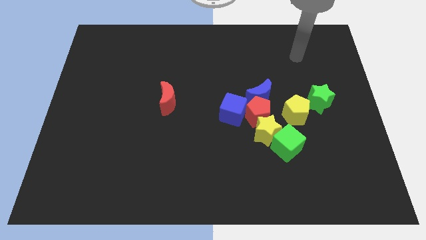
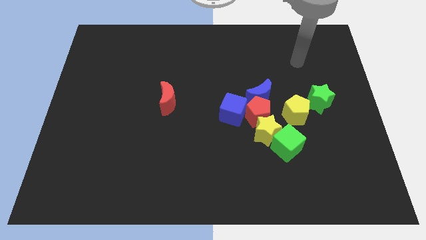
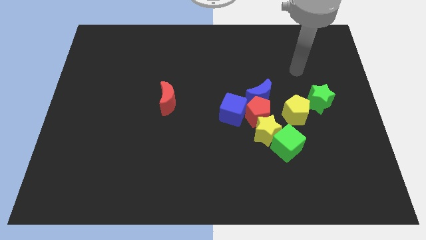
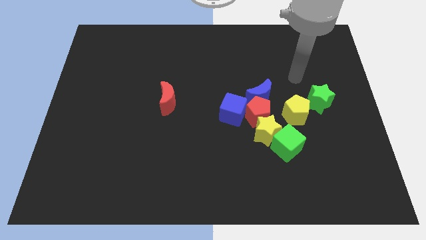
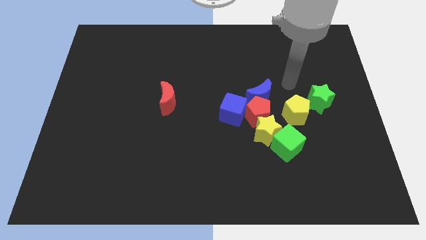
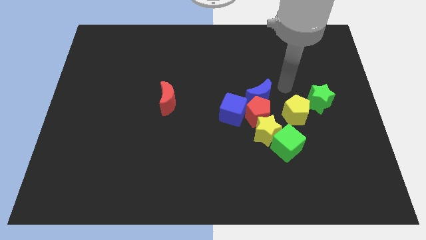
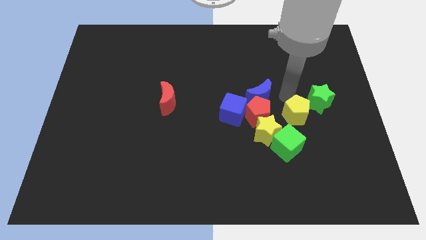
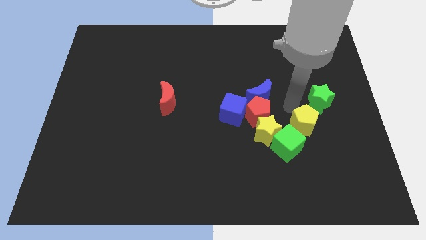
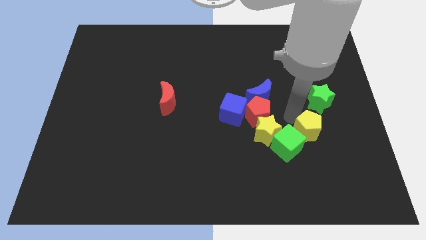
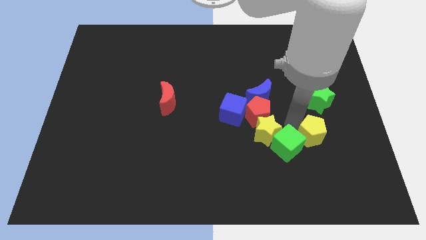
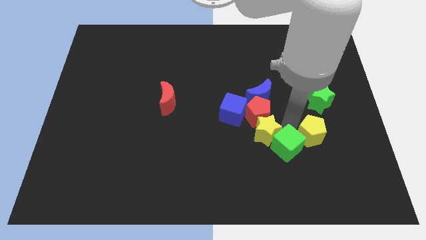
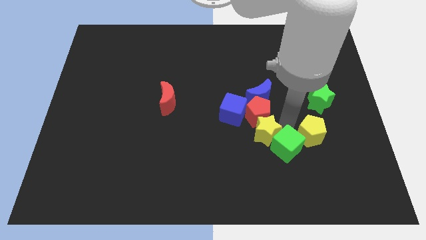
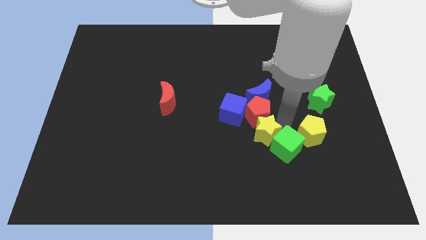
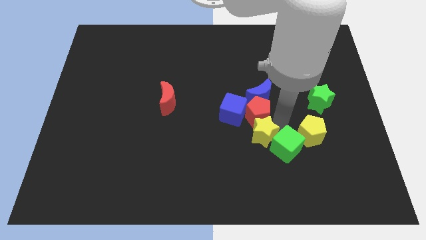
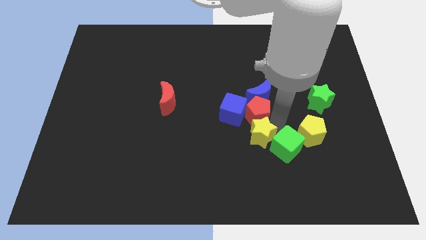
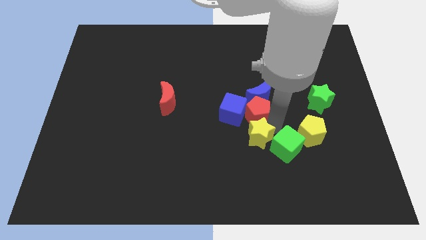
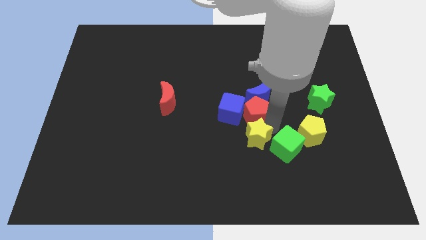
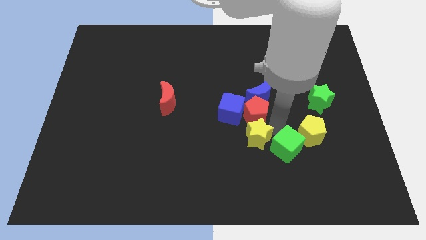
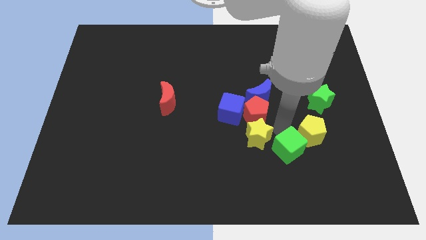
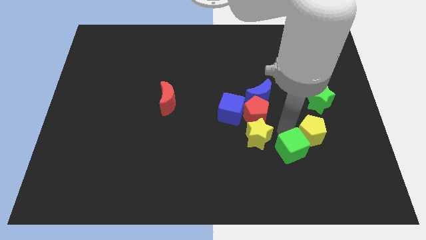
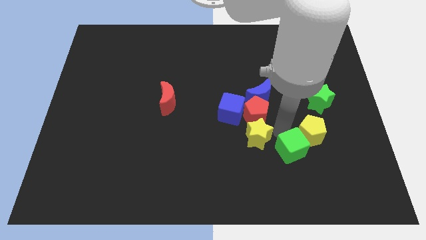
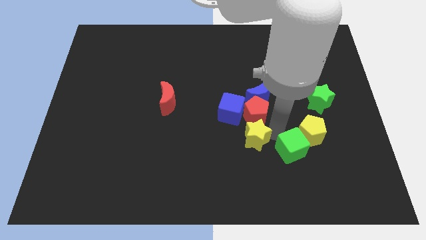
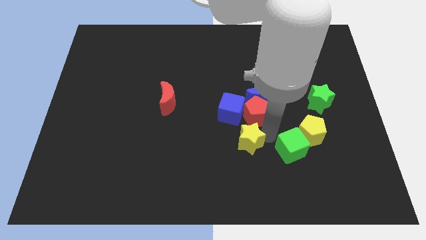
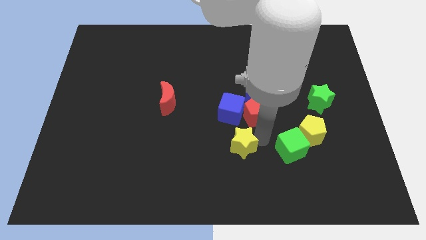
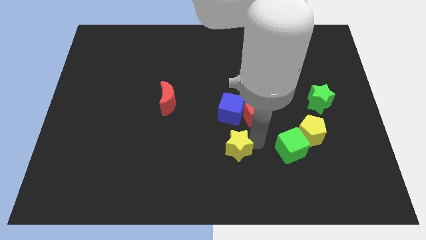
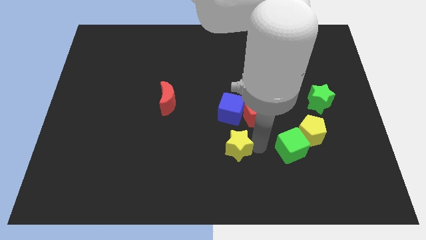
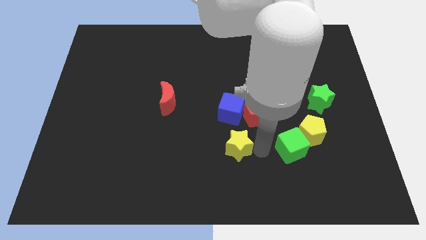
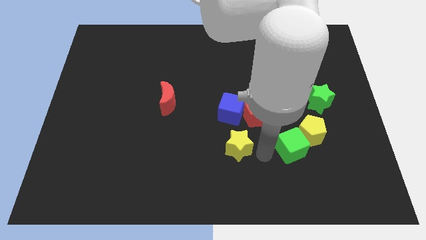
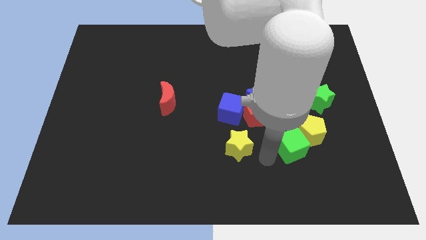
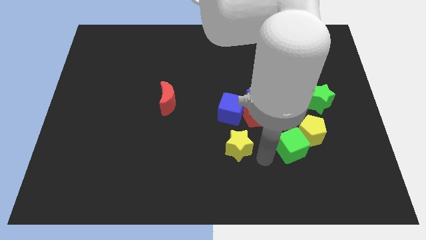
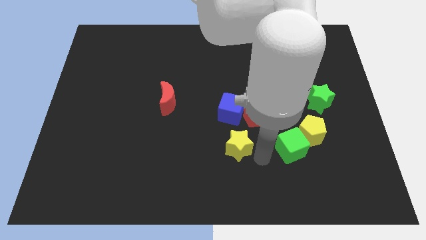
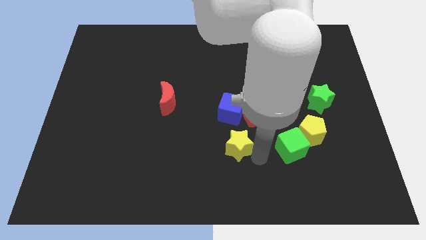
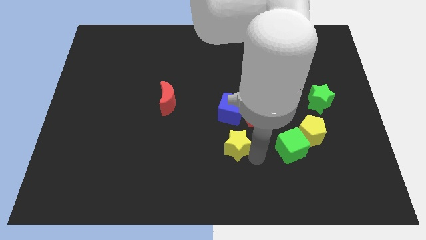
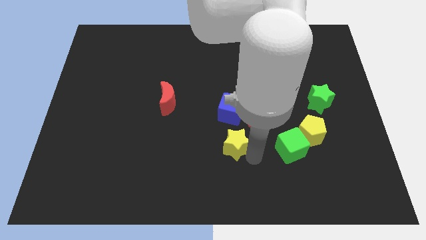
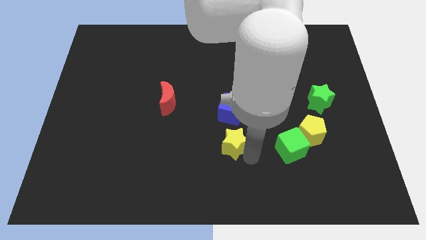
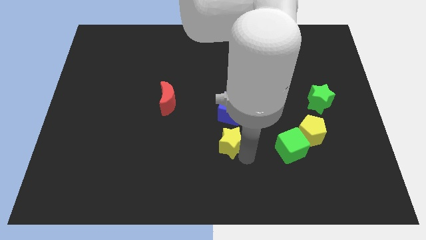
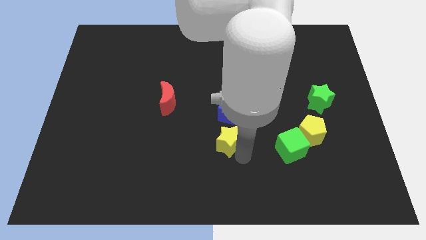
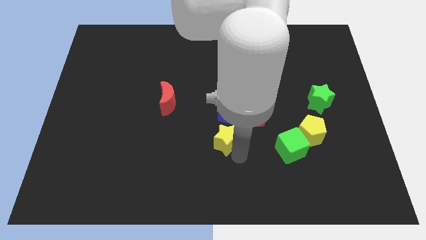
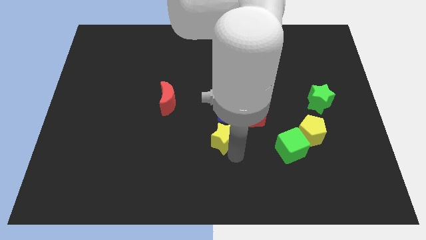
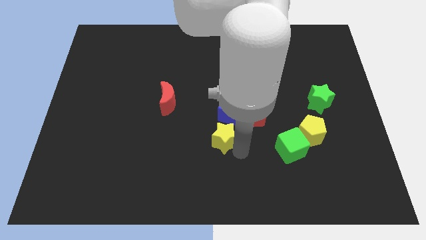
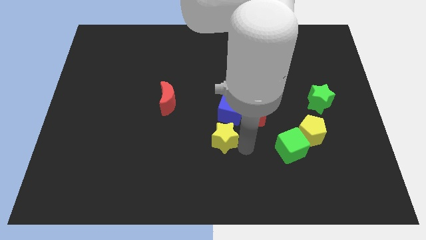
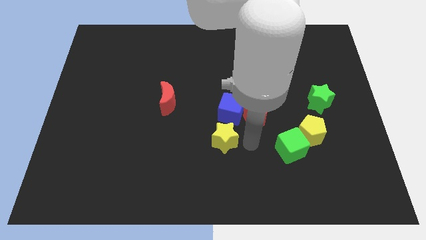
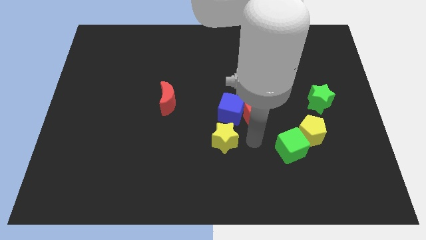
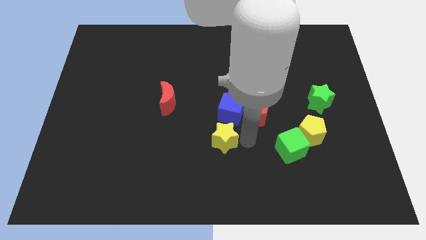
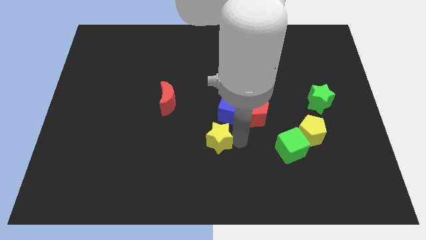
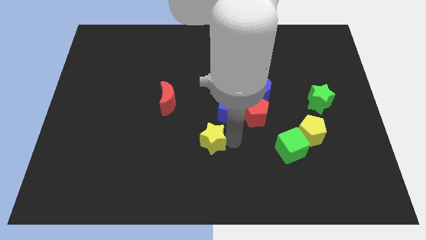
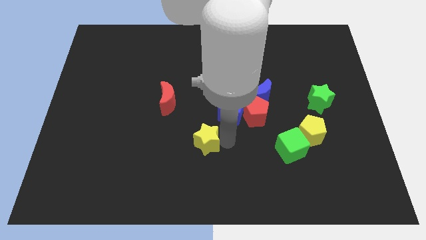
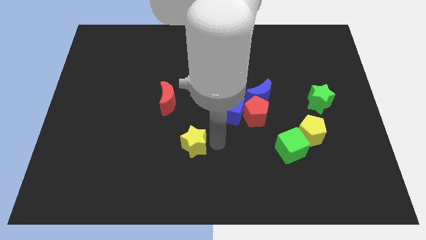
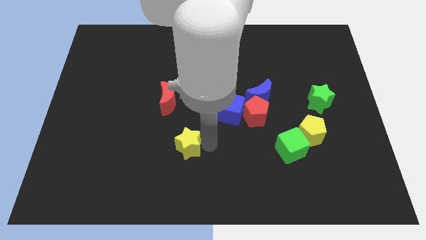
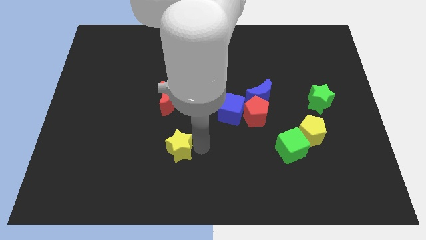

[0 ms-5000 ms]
put the yellow star below the red moon

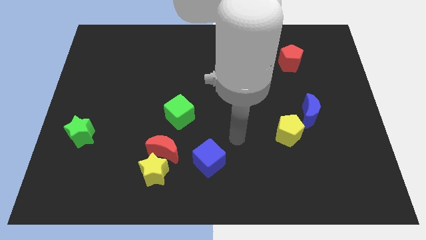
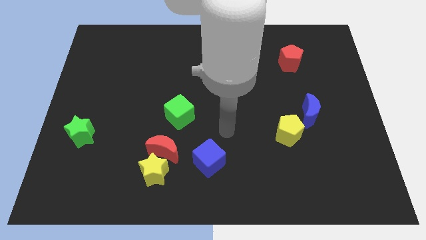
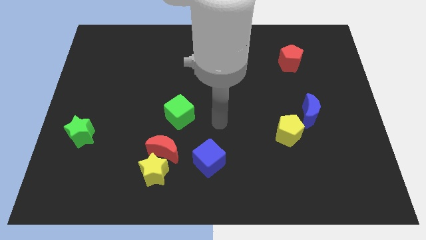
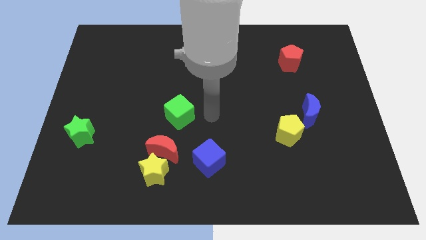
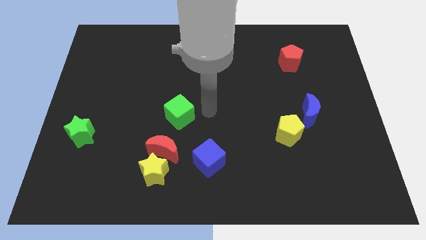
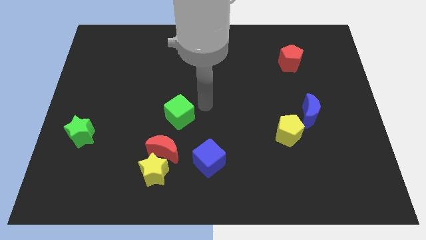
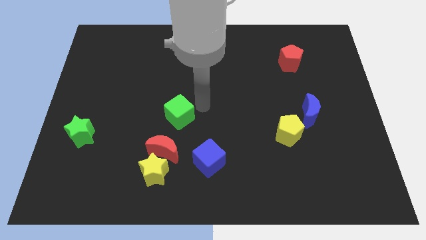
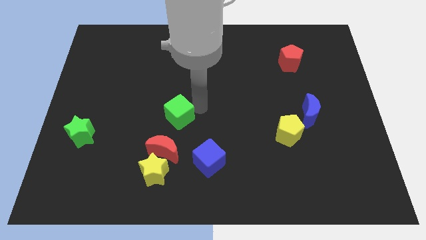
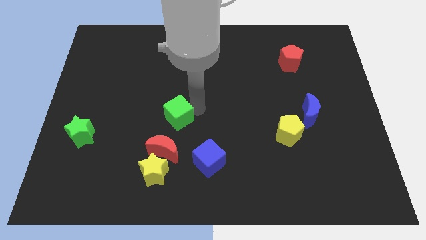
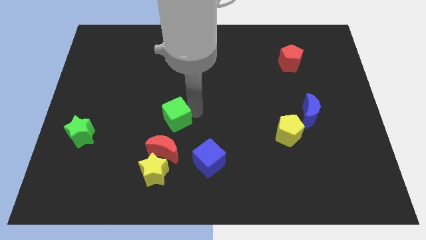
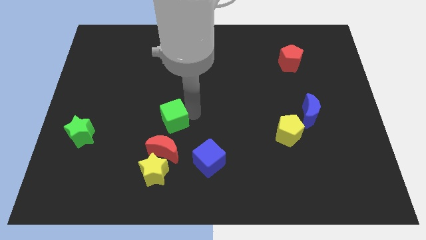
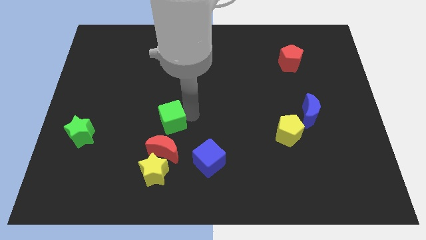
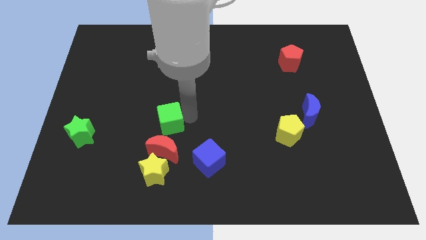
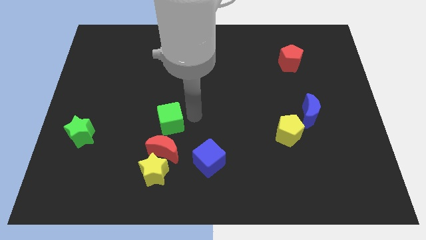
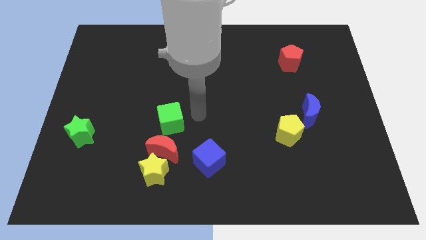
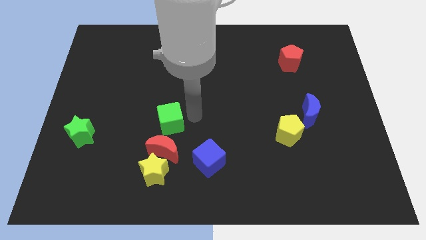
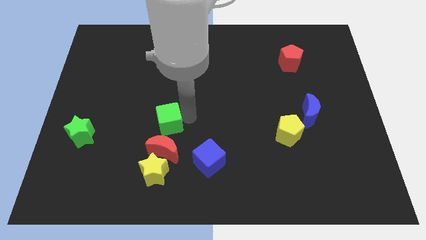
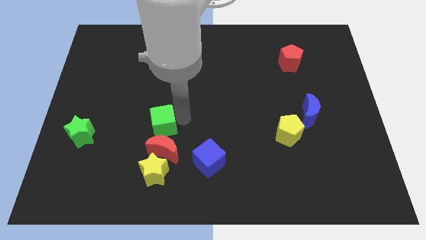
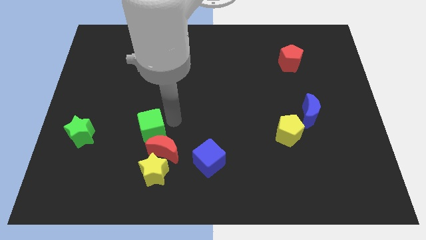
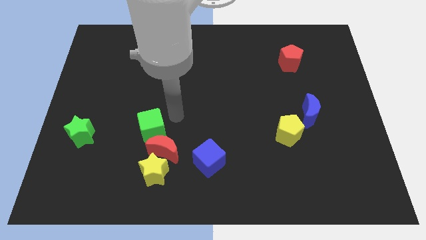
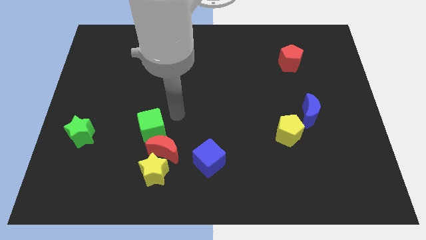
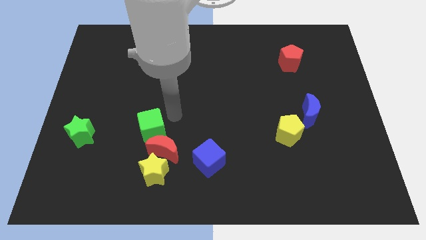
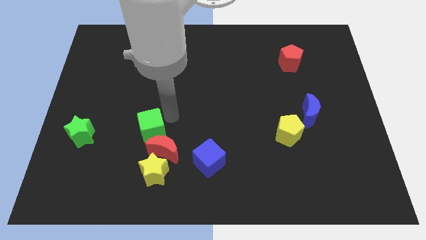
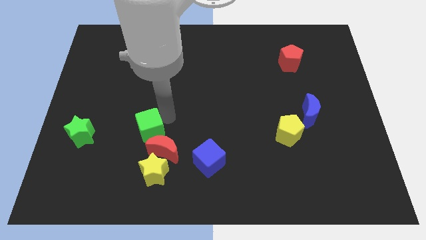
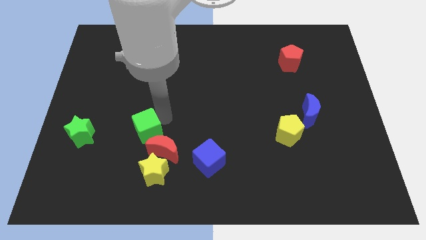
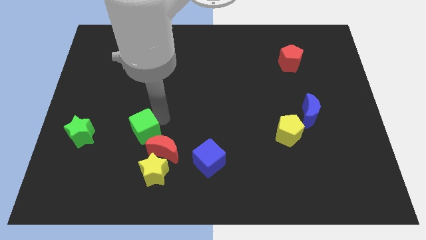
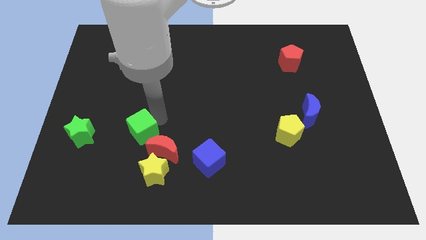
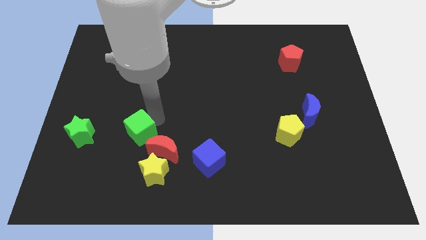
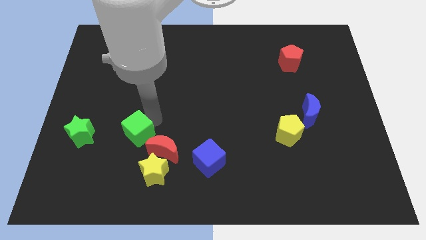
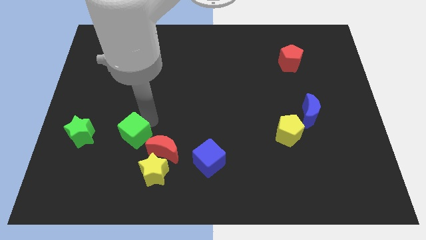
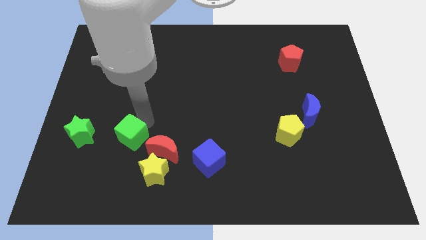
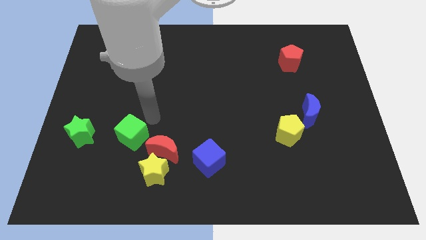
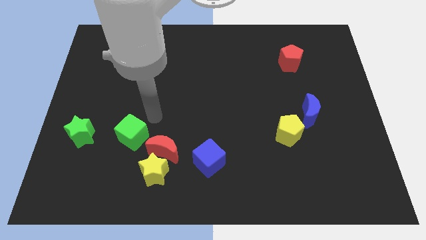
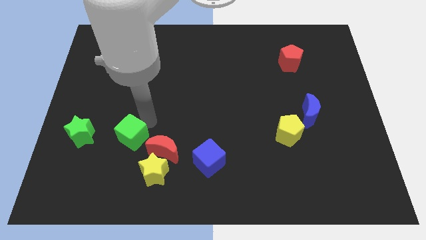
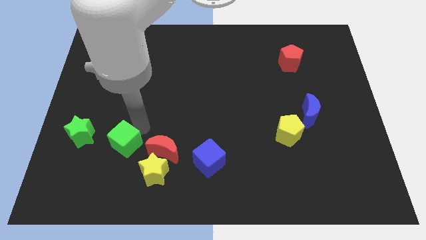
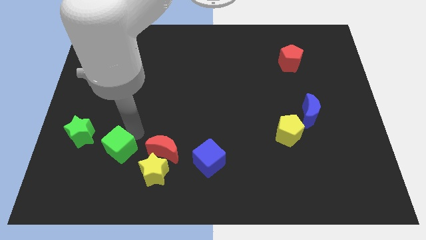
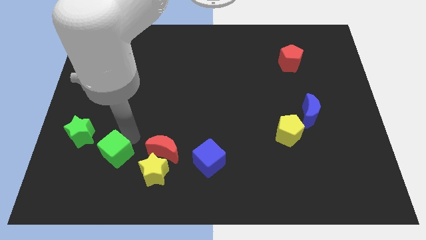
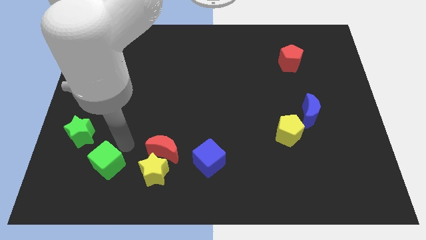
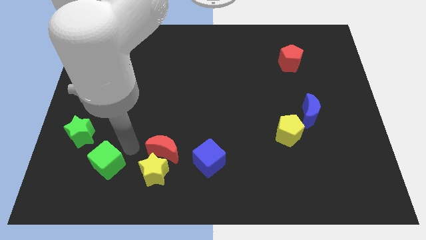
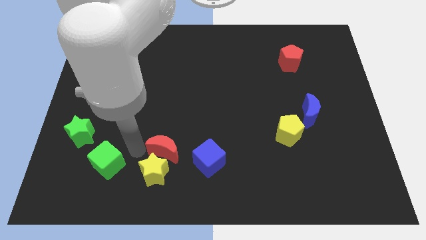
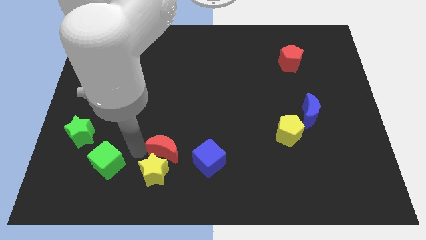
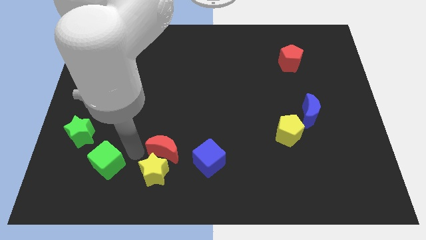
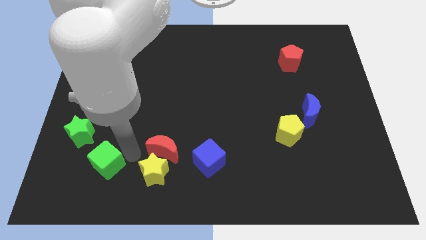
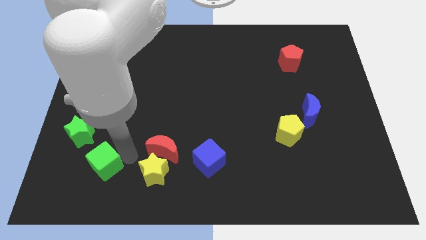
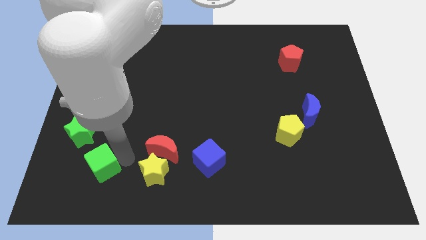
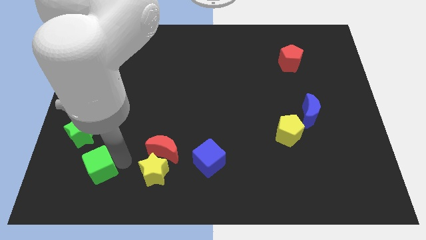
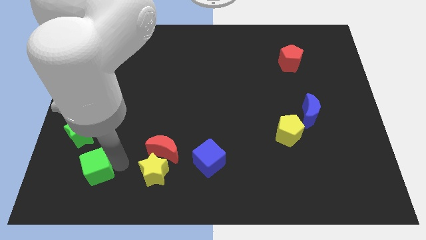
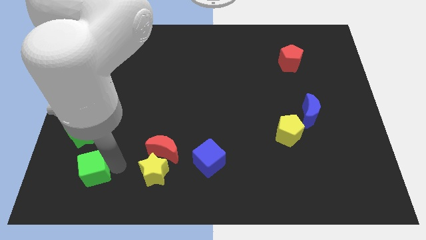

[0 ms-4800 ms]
put the green cube to the bottom of the green star
